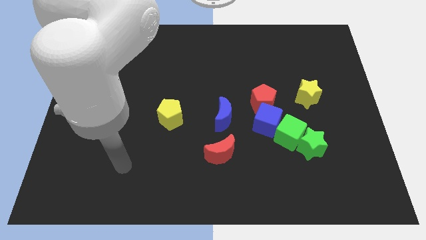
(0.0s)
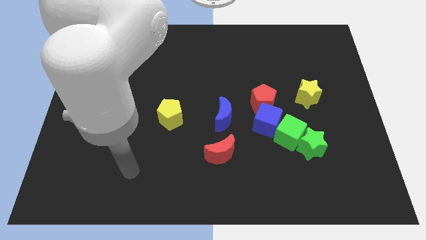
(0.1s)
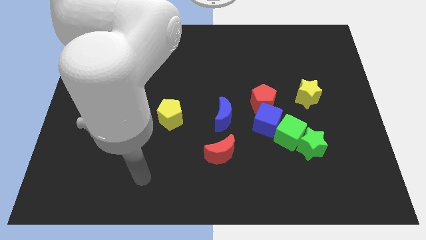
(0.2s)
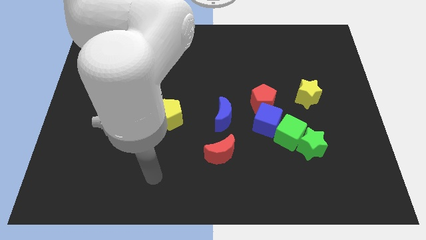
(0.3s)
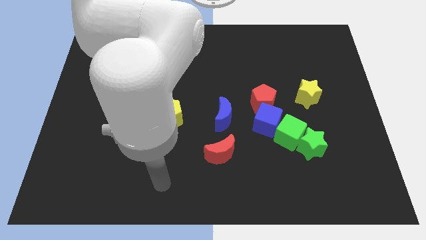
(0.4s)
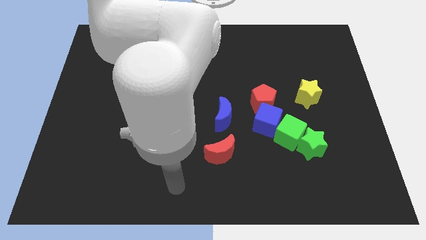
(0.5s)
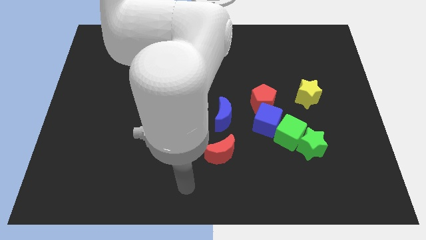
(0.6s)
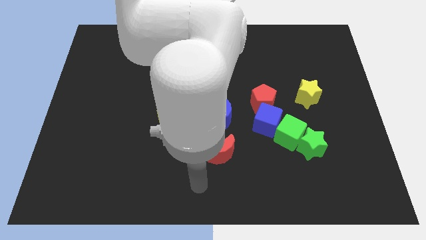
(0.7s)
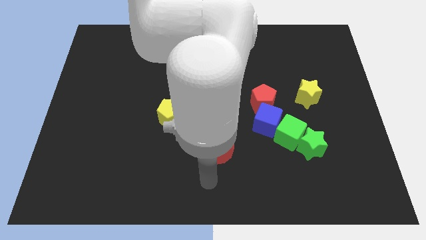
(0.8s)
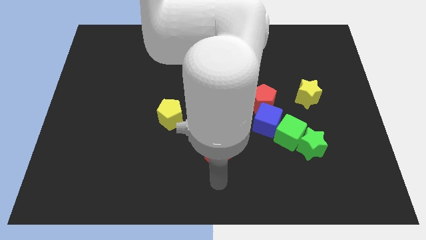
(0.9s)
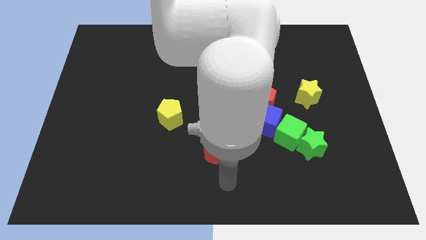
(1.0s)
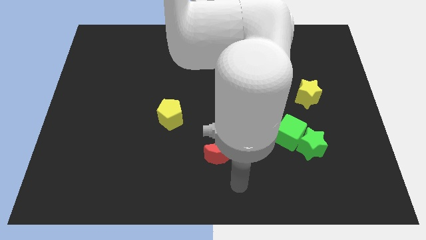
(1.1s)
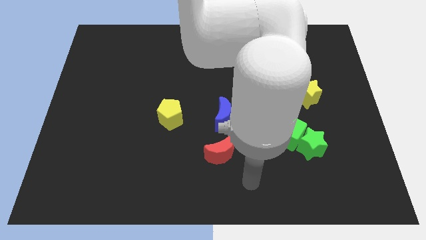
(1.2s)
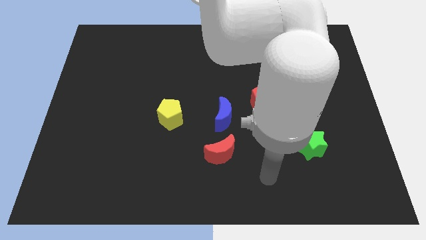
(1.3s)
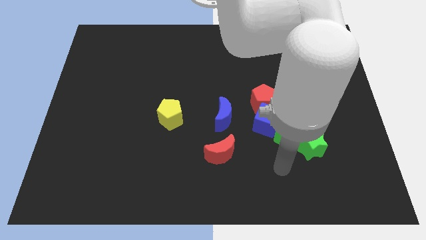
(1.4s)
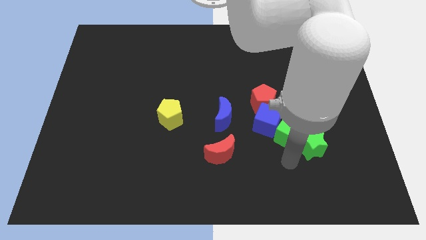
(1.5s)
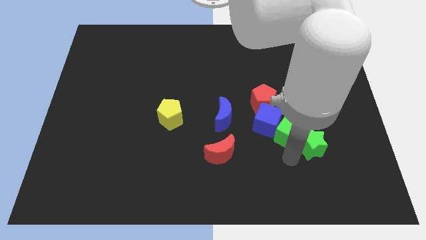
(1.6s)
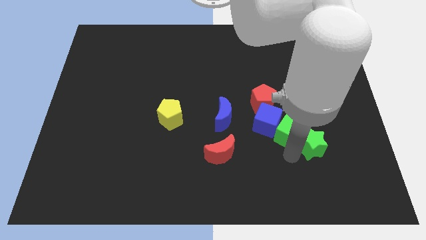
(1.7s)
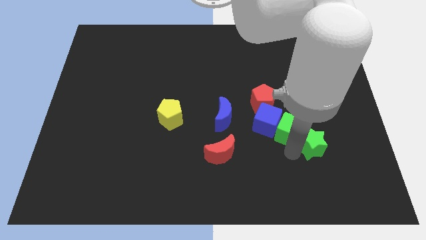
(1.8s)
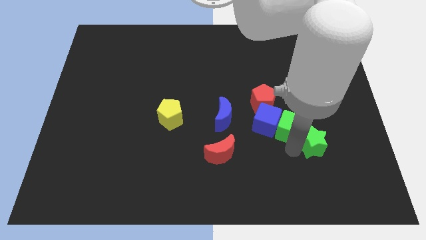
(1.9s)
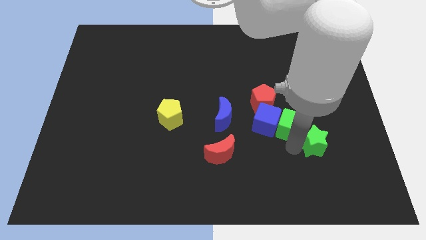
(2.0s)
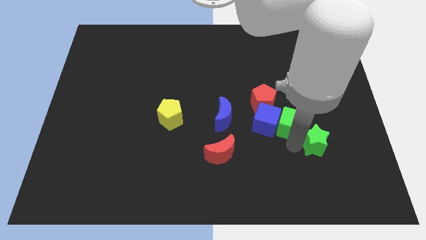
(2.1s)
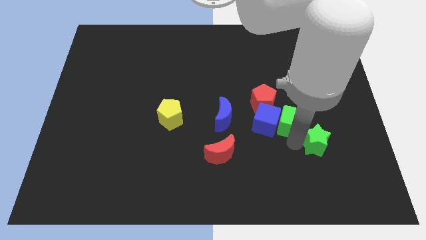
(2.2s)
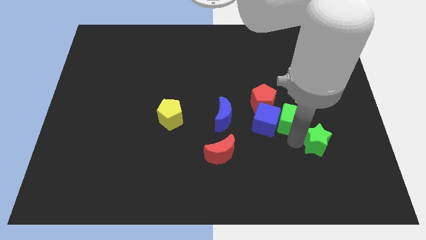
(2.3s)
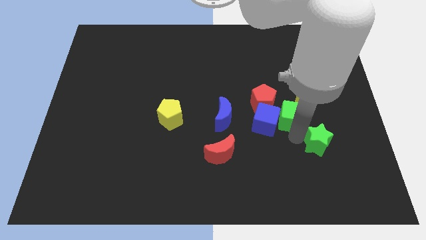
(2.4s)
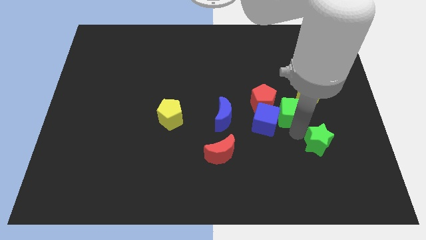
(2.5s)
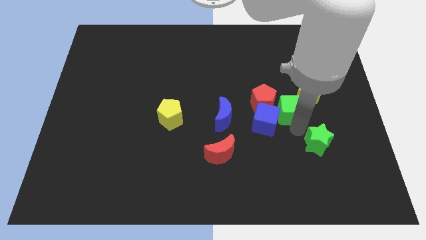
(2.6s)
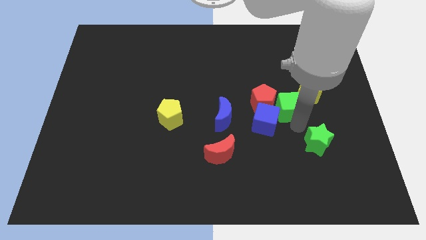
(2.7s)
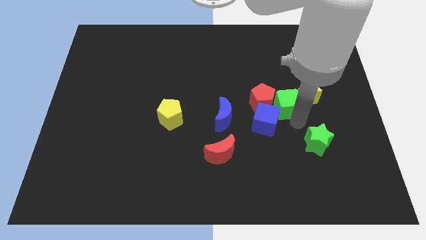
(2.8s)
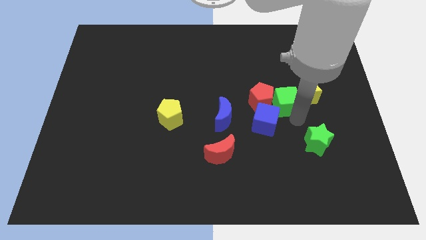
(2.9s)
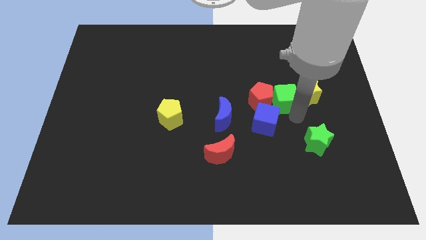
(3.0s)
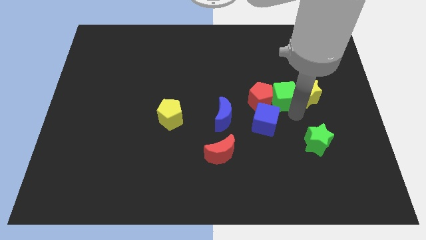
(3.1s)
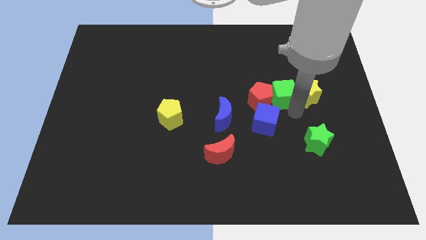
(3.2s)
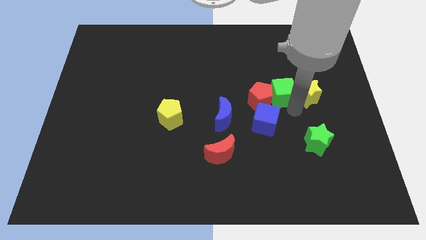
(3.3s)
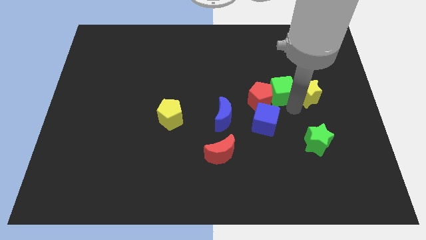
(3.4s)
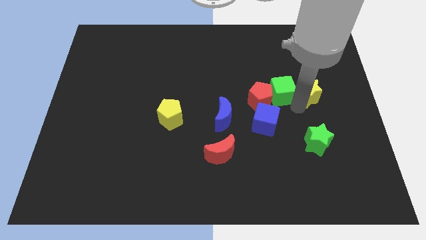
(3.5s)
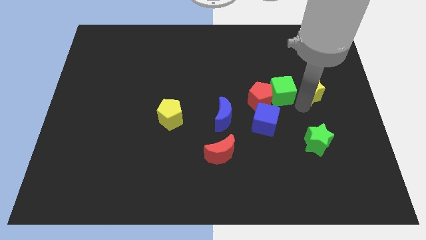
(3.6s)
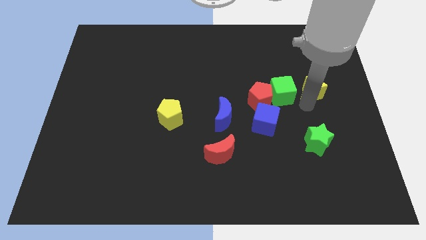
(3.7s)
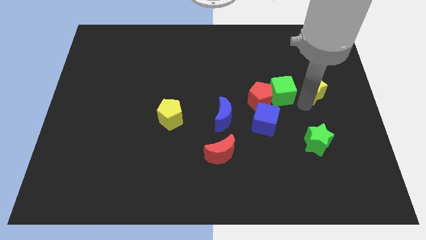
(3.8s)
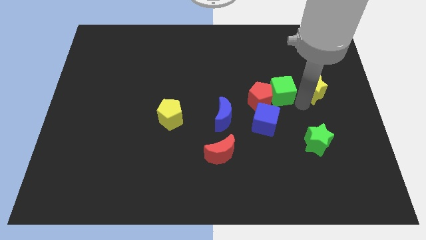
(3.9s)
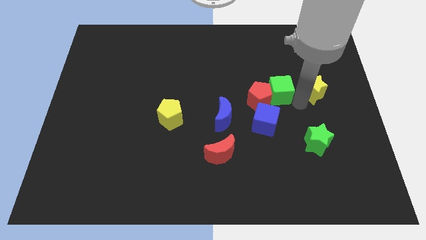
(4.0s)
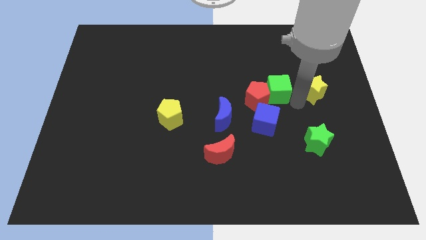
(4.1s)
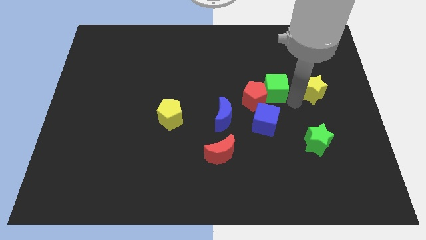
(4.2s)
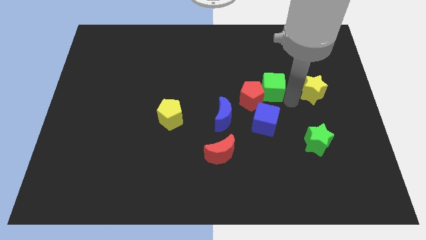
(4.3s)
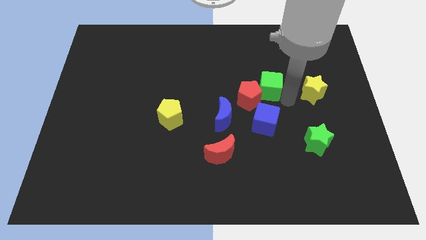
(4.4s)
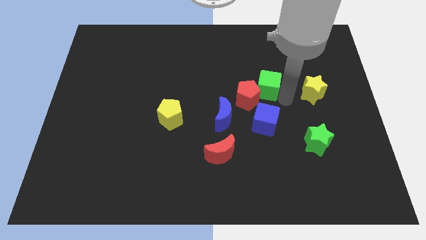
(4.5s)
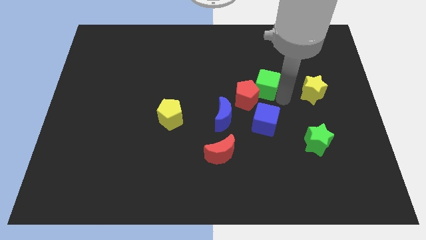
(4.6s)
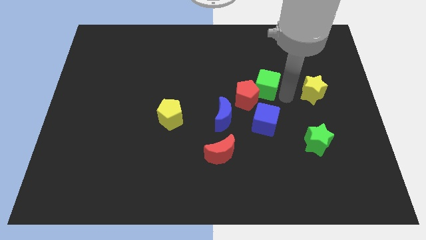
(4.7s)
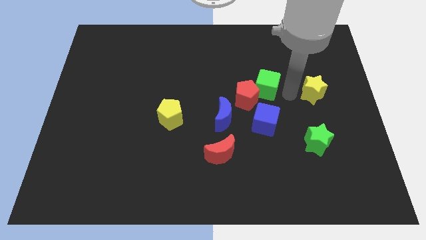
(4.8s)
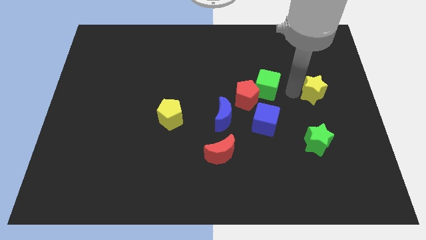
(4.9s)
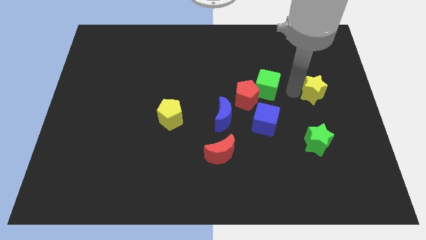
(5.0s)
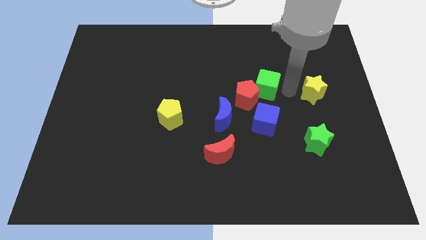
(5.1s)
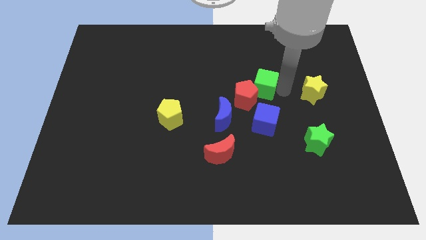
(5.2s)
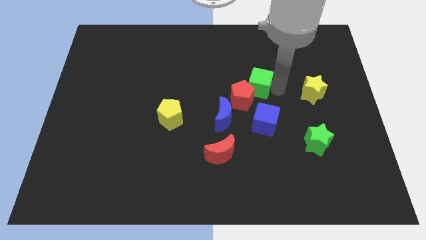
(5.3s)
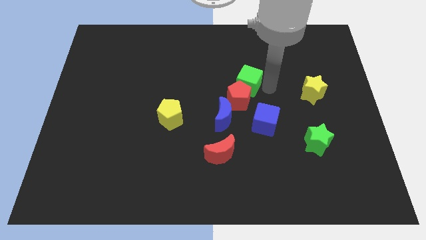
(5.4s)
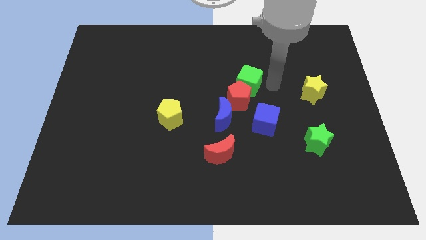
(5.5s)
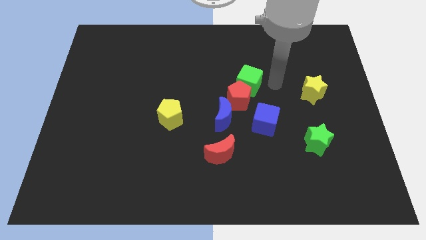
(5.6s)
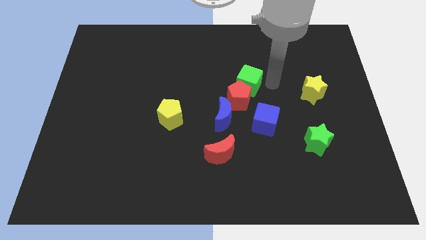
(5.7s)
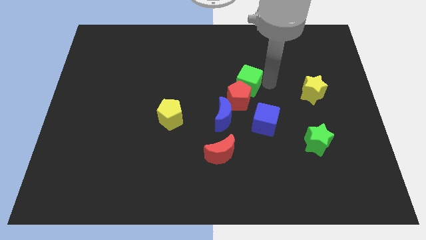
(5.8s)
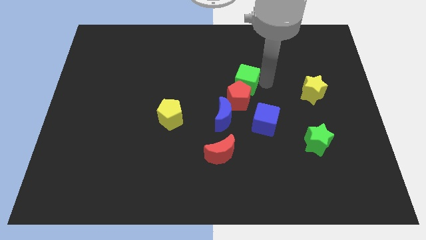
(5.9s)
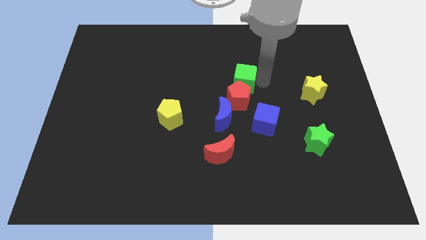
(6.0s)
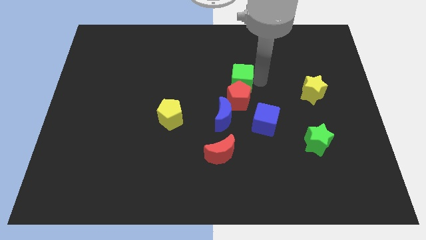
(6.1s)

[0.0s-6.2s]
slide the green cube to the top of the blue moon

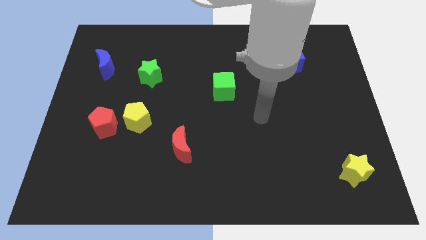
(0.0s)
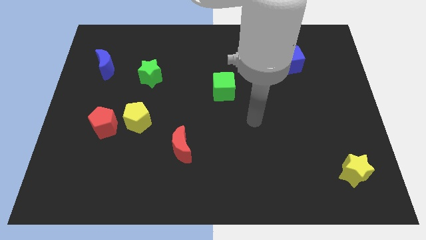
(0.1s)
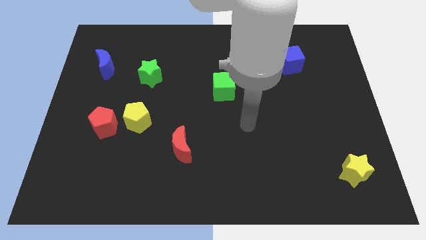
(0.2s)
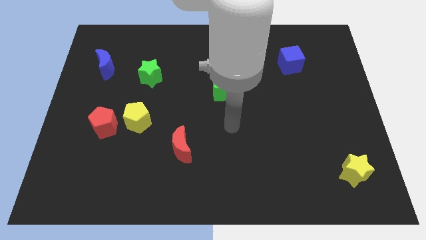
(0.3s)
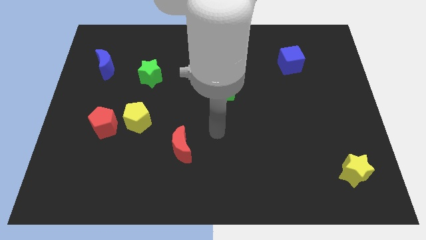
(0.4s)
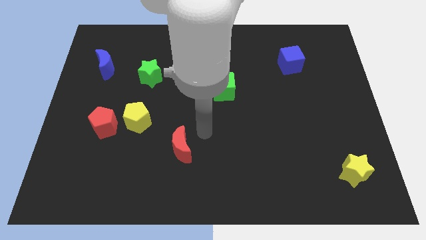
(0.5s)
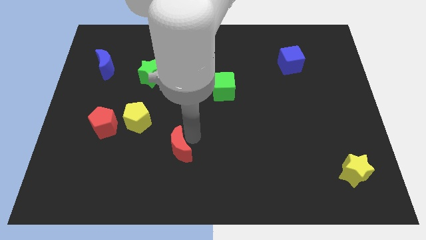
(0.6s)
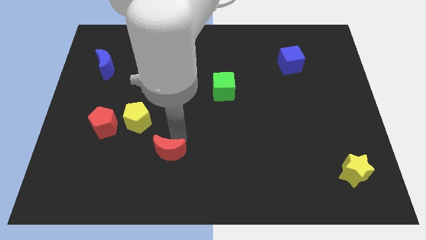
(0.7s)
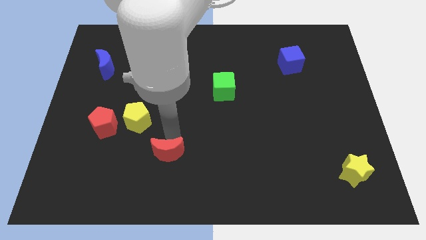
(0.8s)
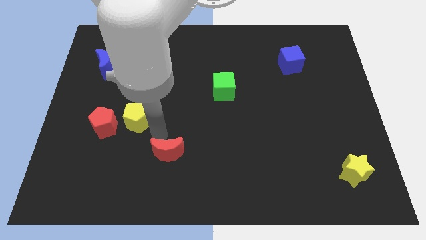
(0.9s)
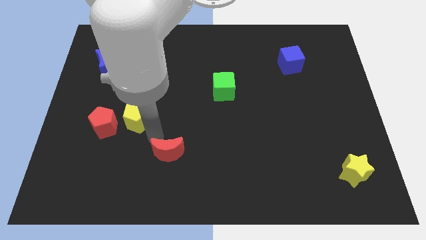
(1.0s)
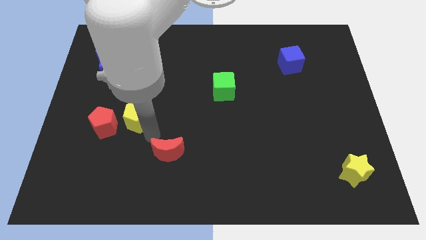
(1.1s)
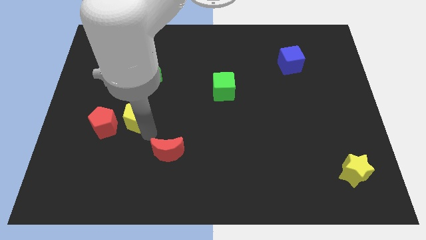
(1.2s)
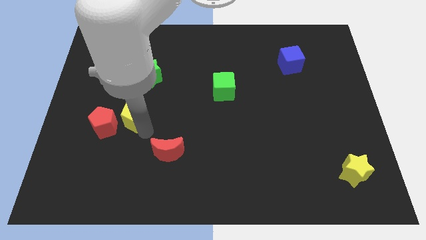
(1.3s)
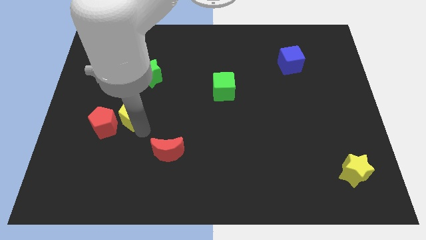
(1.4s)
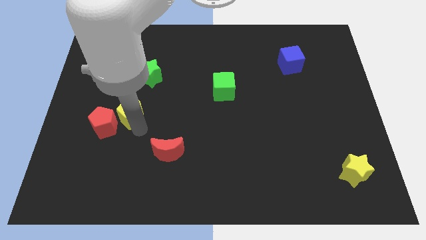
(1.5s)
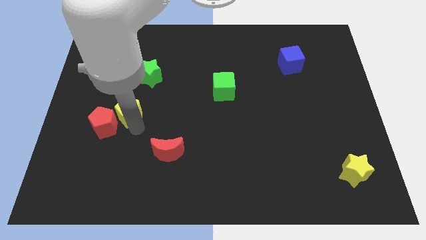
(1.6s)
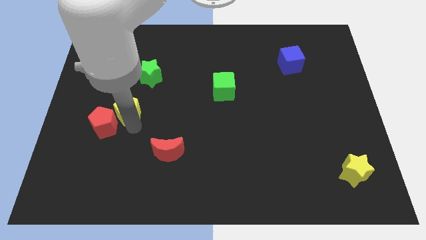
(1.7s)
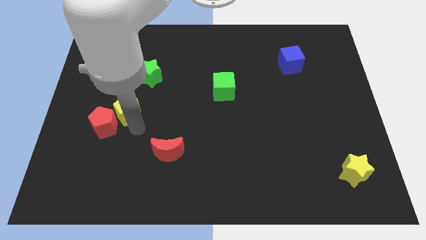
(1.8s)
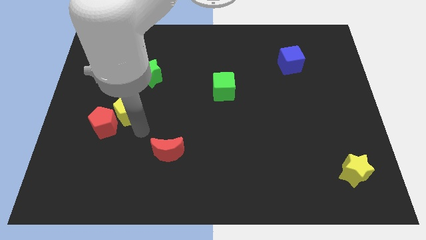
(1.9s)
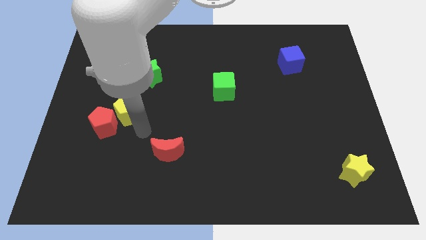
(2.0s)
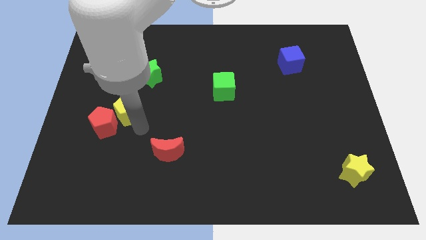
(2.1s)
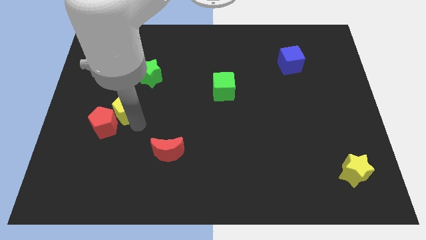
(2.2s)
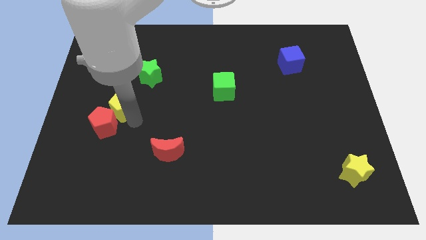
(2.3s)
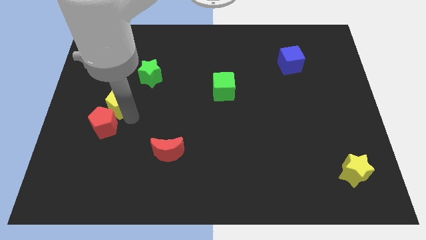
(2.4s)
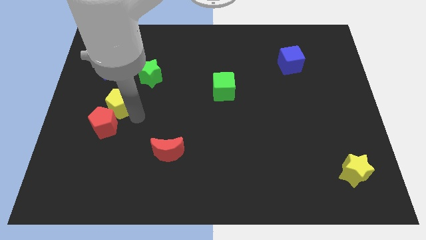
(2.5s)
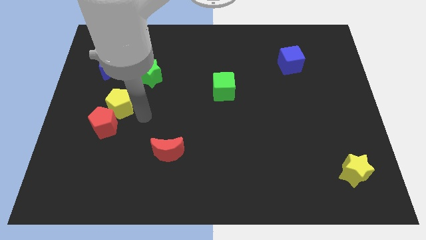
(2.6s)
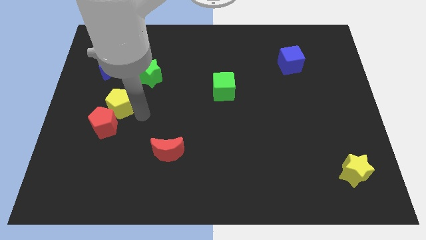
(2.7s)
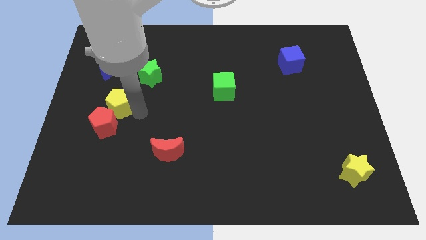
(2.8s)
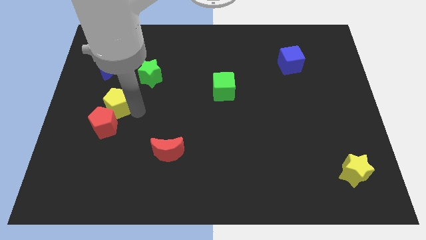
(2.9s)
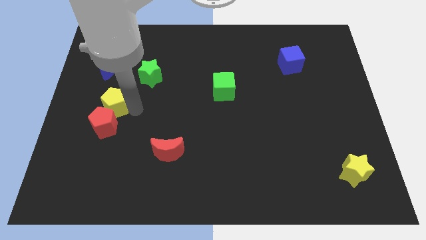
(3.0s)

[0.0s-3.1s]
slide the yellow pentagon to the bottom of the blue moon
